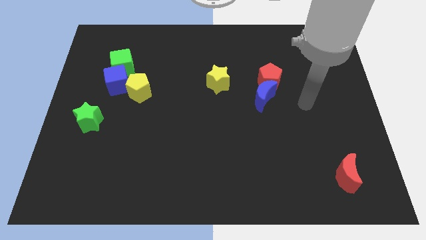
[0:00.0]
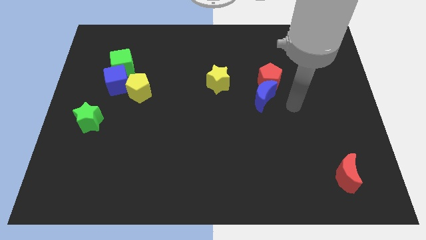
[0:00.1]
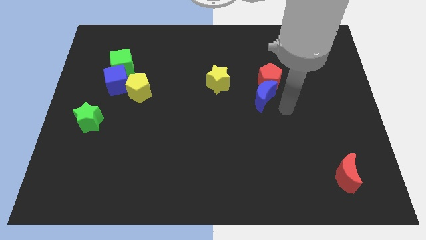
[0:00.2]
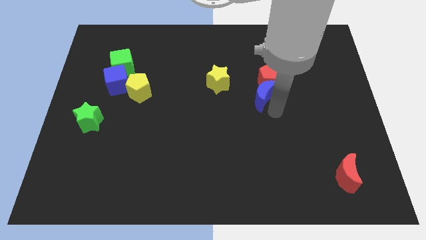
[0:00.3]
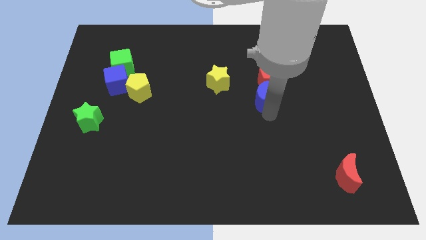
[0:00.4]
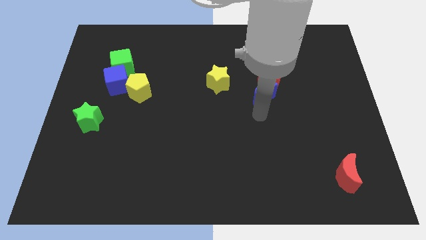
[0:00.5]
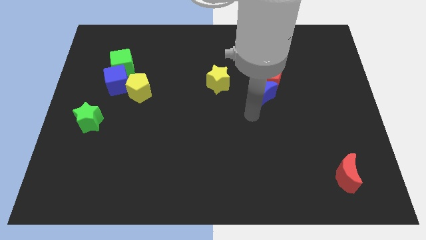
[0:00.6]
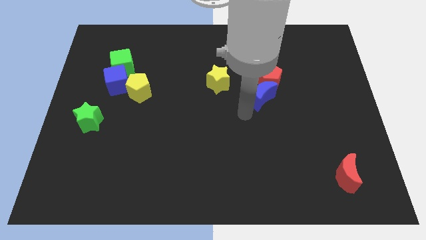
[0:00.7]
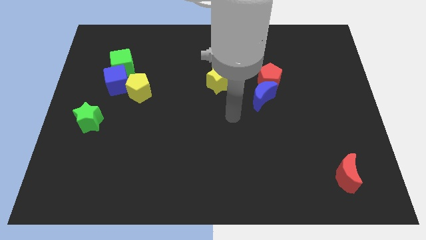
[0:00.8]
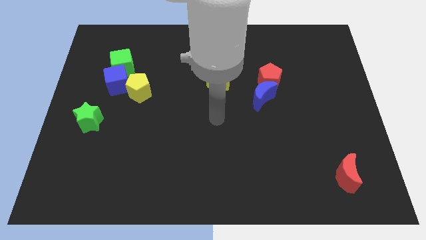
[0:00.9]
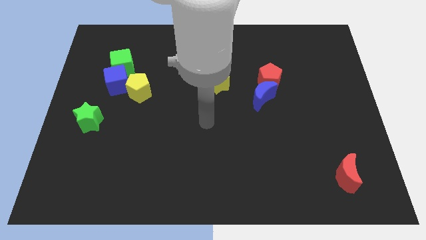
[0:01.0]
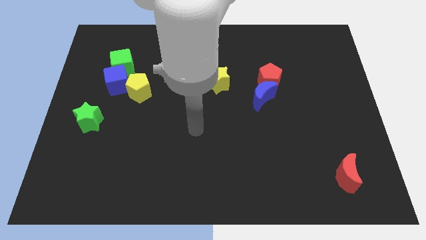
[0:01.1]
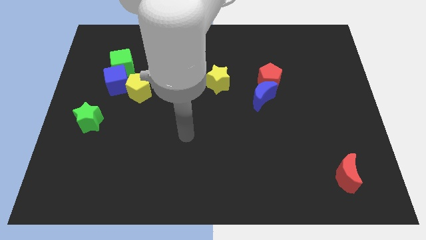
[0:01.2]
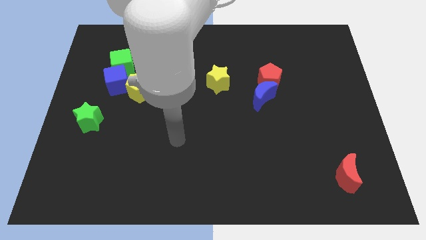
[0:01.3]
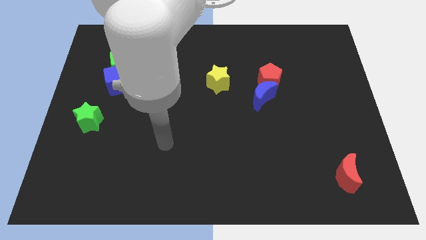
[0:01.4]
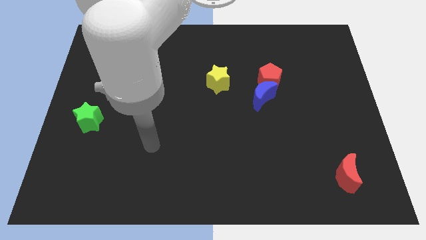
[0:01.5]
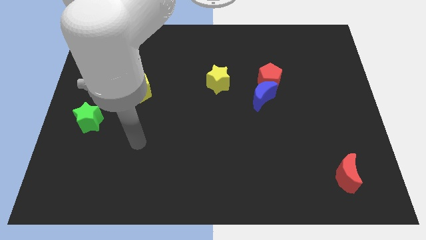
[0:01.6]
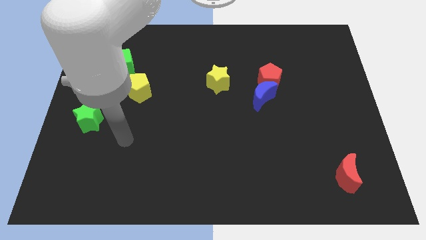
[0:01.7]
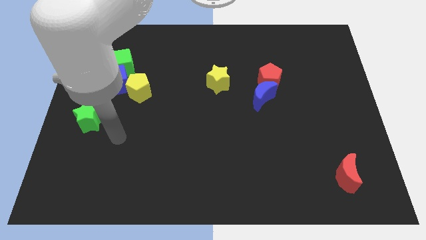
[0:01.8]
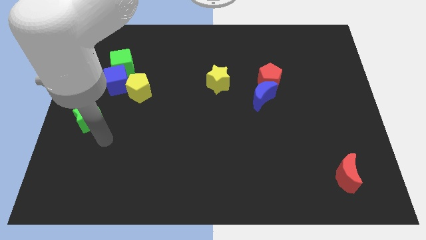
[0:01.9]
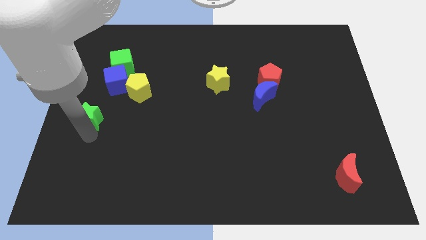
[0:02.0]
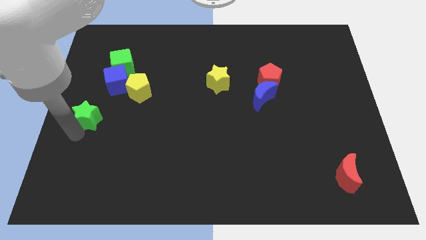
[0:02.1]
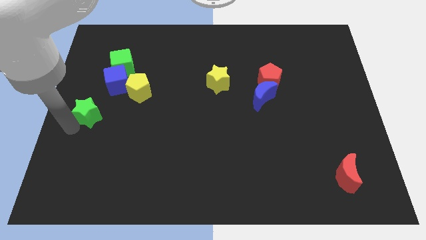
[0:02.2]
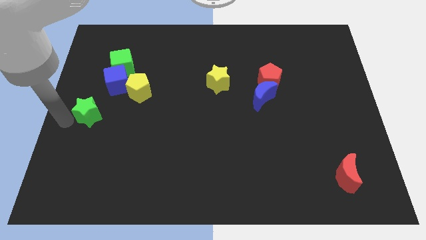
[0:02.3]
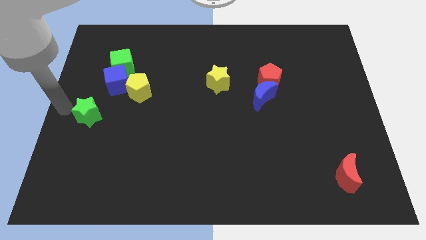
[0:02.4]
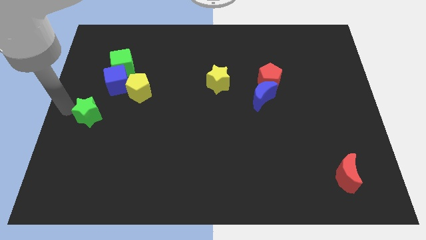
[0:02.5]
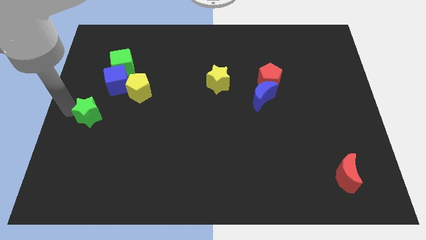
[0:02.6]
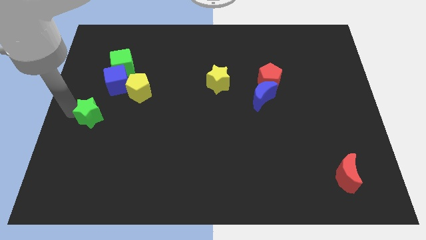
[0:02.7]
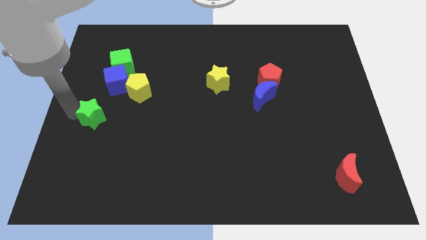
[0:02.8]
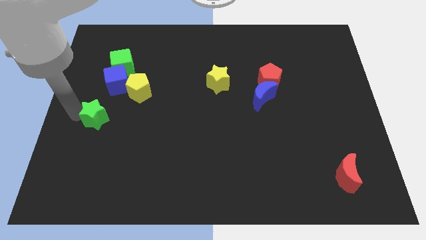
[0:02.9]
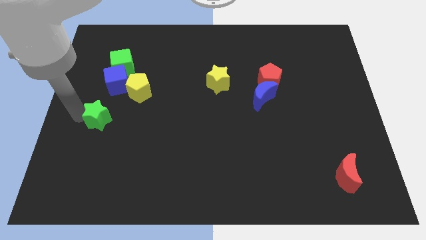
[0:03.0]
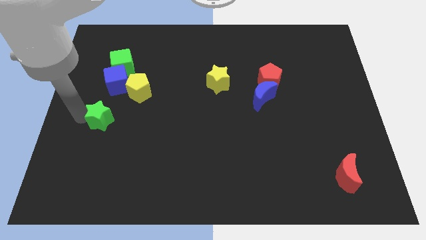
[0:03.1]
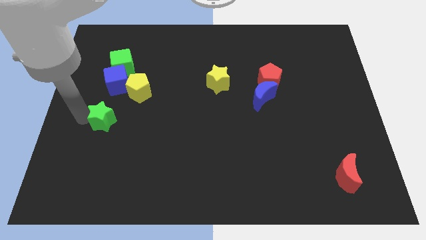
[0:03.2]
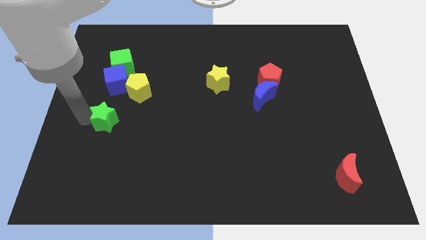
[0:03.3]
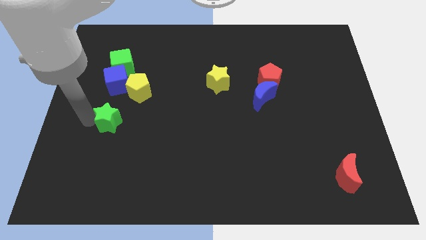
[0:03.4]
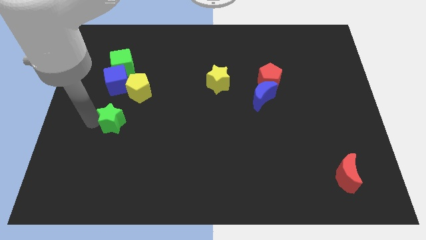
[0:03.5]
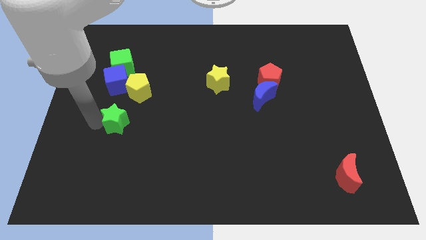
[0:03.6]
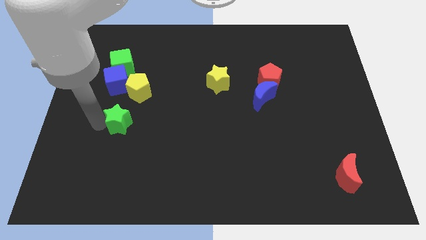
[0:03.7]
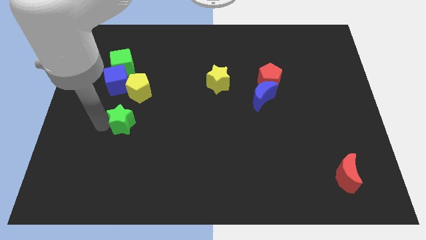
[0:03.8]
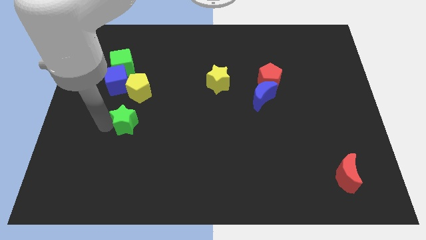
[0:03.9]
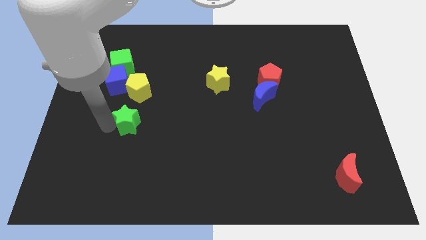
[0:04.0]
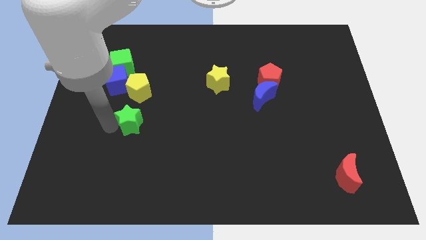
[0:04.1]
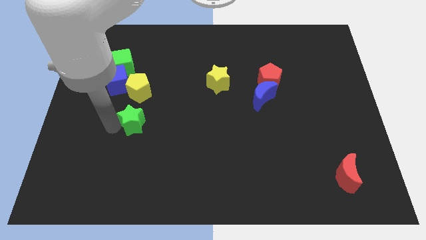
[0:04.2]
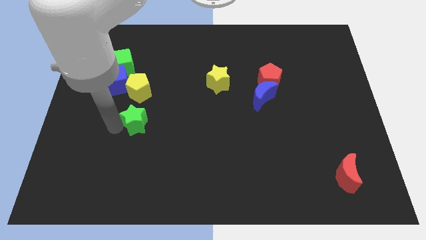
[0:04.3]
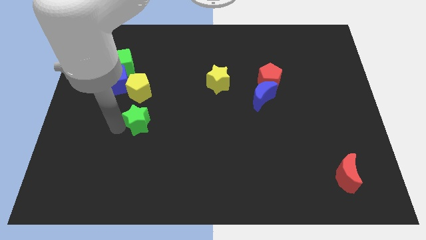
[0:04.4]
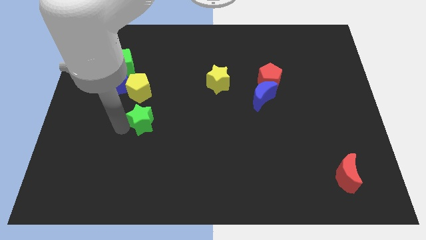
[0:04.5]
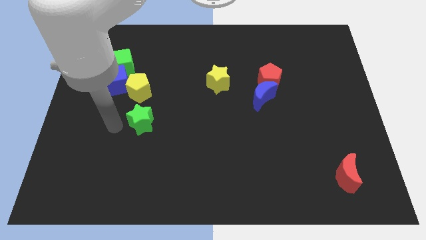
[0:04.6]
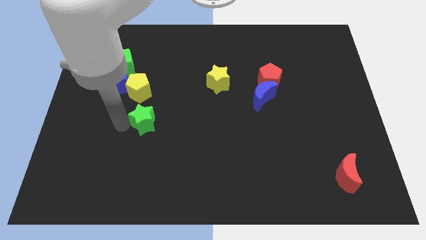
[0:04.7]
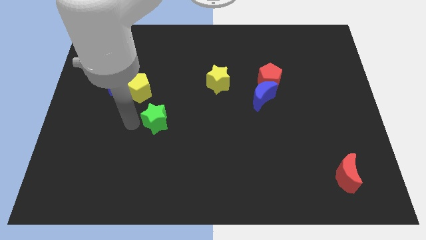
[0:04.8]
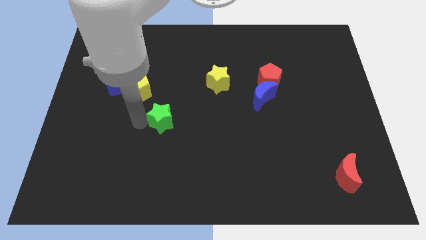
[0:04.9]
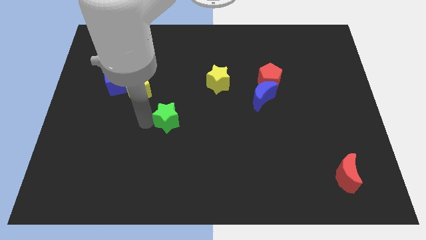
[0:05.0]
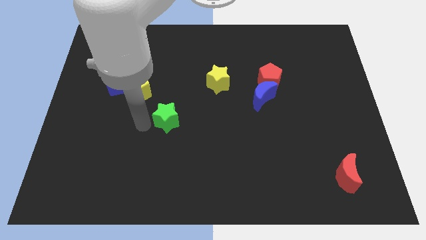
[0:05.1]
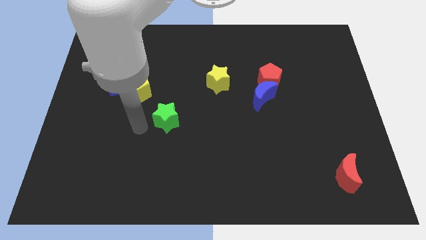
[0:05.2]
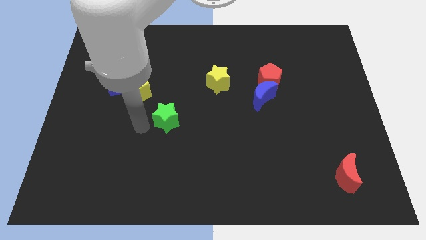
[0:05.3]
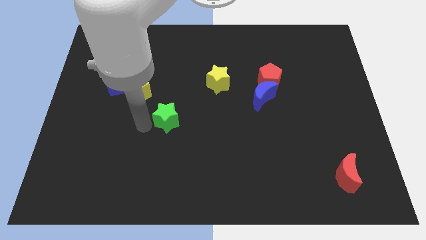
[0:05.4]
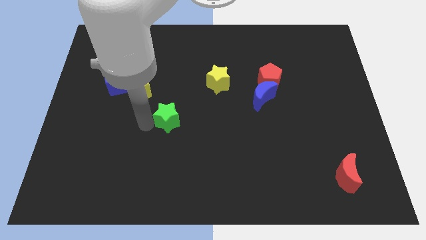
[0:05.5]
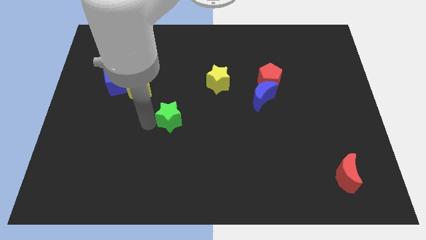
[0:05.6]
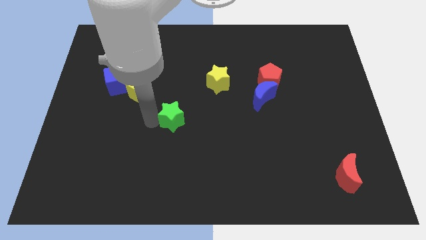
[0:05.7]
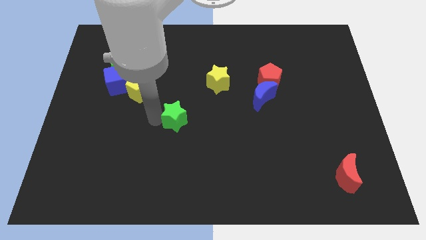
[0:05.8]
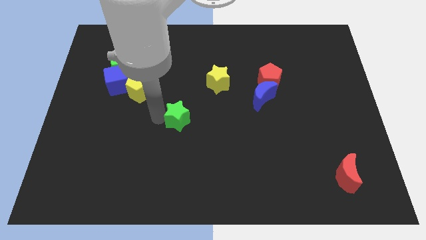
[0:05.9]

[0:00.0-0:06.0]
push the green star to the right

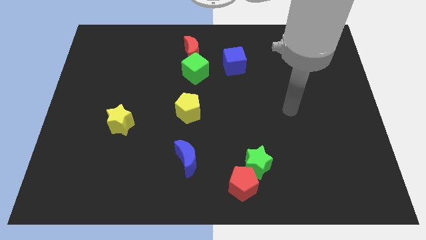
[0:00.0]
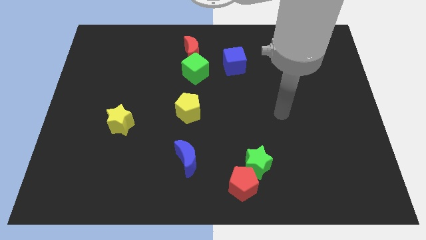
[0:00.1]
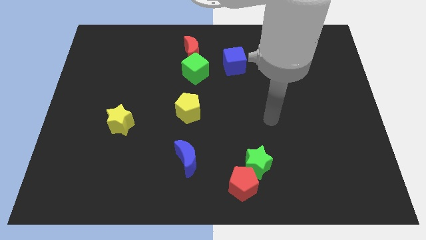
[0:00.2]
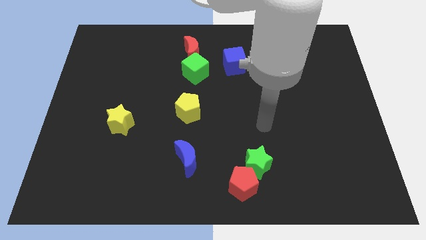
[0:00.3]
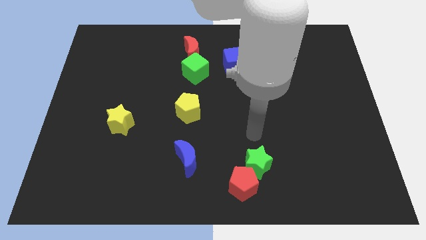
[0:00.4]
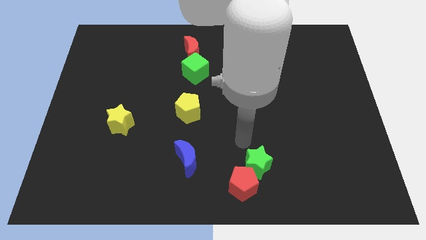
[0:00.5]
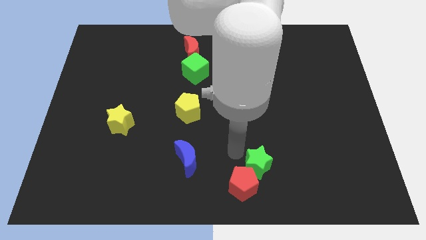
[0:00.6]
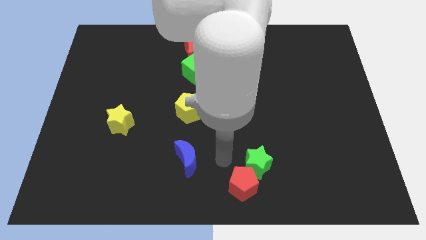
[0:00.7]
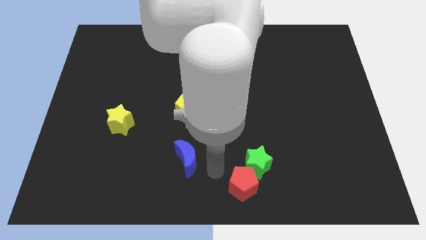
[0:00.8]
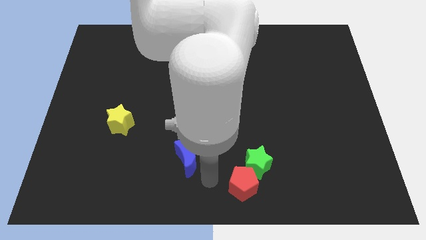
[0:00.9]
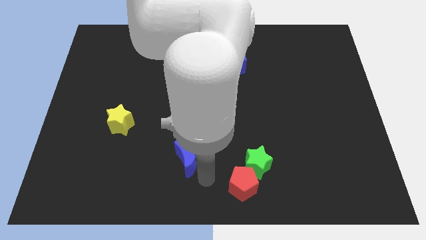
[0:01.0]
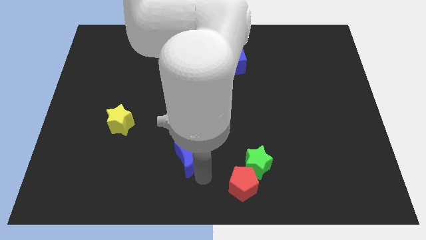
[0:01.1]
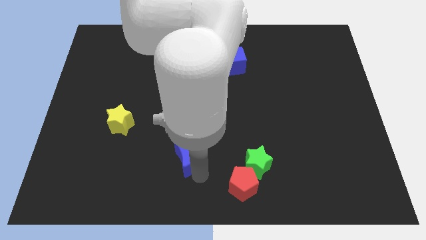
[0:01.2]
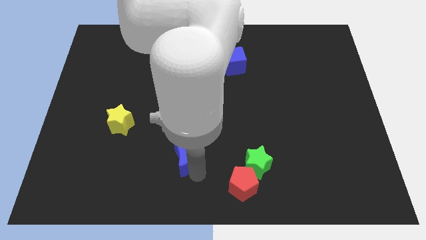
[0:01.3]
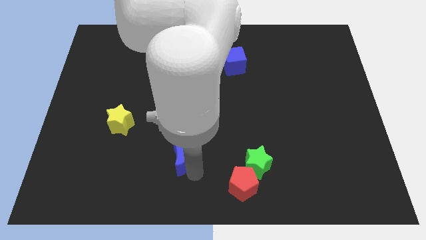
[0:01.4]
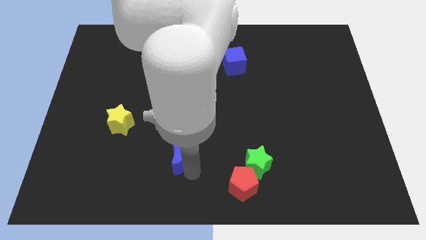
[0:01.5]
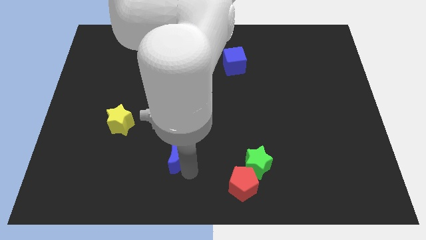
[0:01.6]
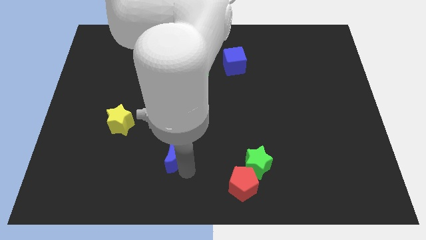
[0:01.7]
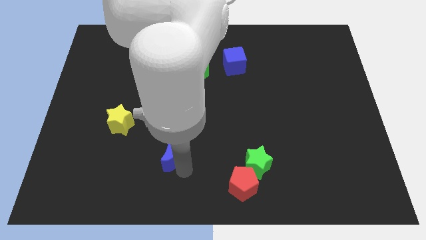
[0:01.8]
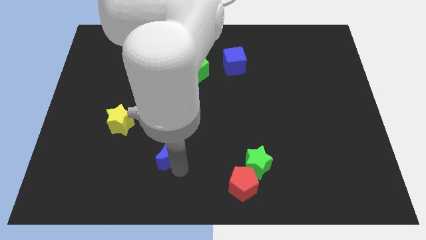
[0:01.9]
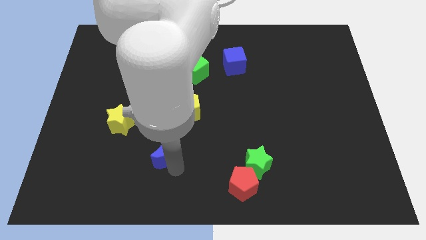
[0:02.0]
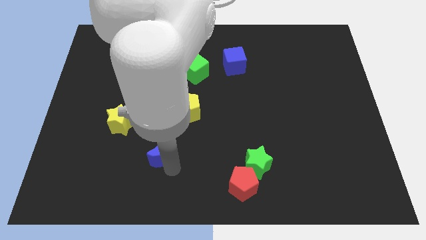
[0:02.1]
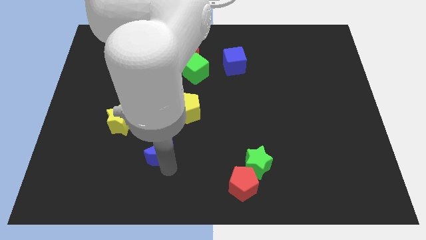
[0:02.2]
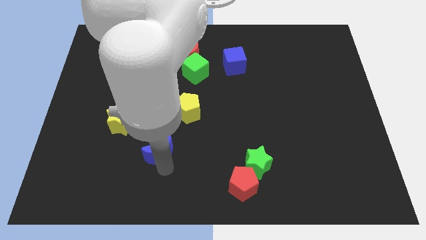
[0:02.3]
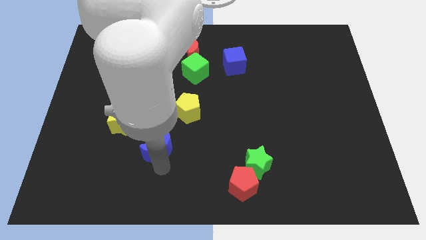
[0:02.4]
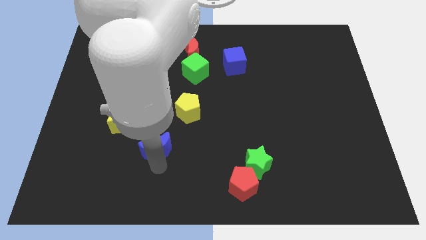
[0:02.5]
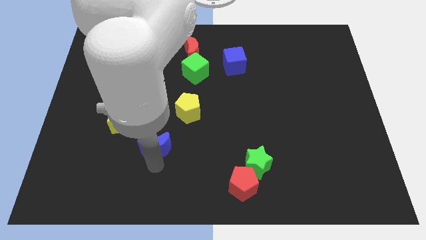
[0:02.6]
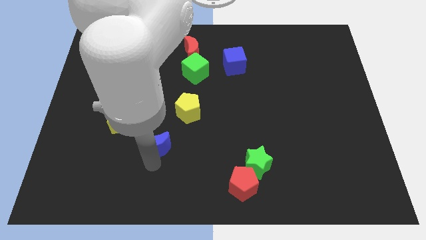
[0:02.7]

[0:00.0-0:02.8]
move the blue moon slightly upwards and then left
